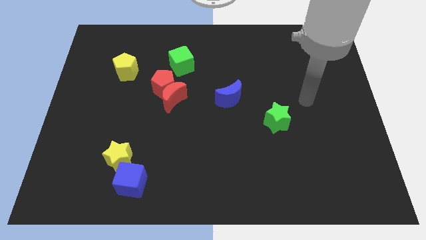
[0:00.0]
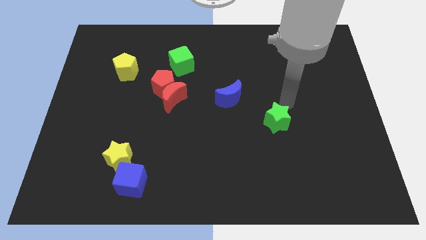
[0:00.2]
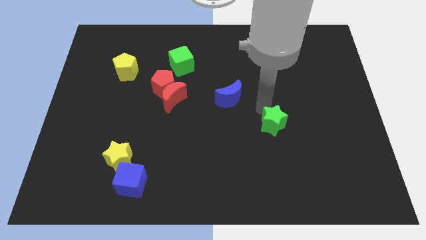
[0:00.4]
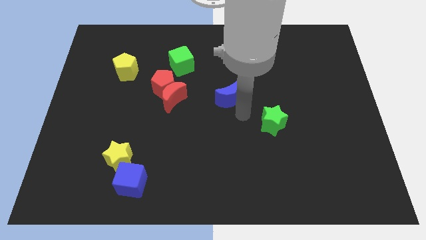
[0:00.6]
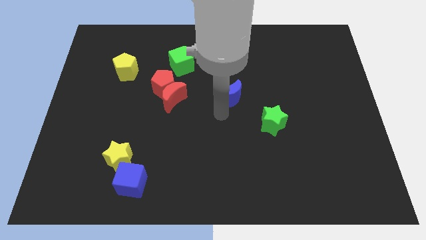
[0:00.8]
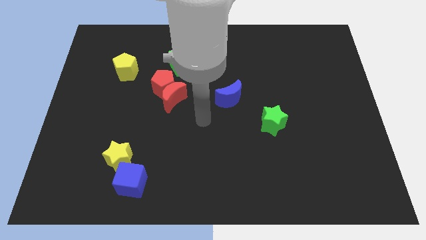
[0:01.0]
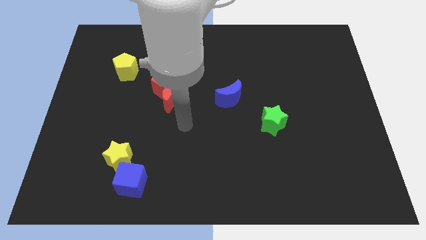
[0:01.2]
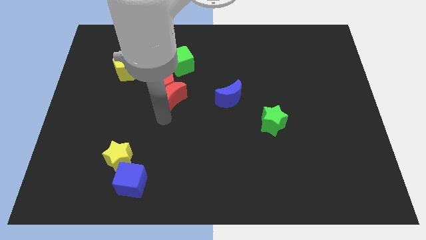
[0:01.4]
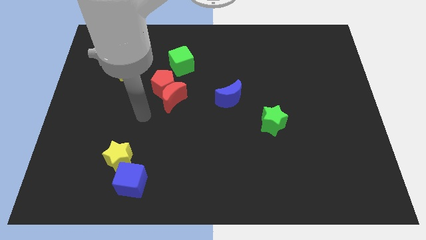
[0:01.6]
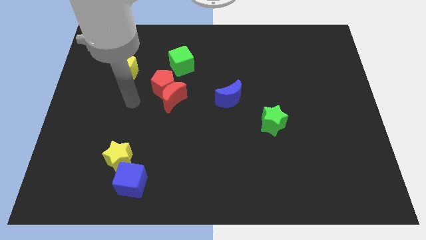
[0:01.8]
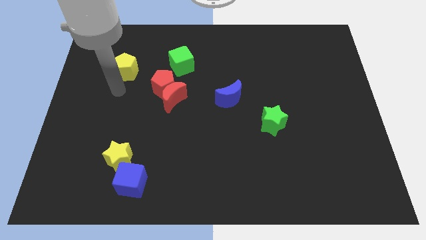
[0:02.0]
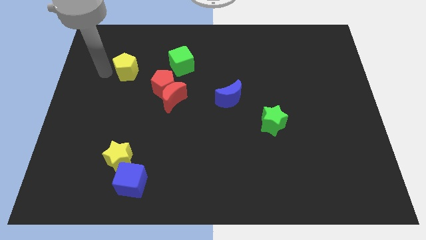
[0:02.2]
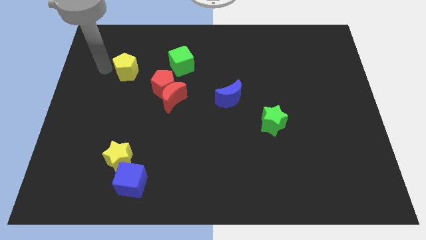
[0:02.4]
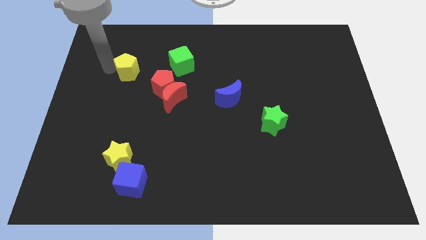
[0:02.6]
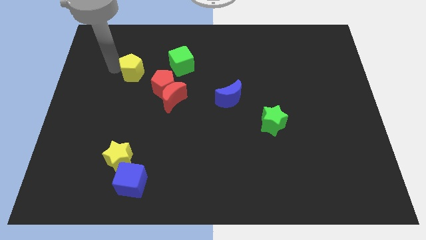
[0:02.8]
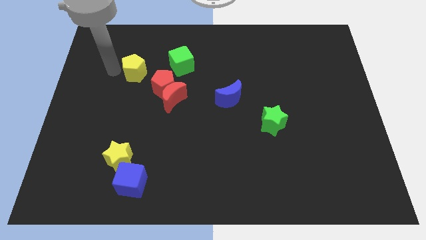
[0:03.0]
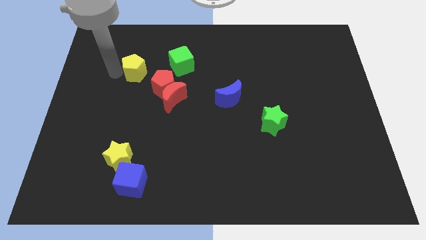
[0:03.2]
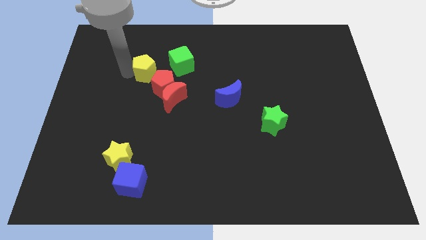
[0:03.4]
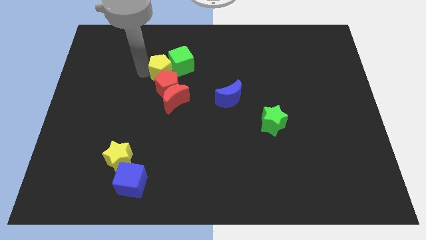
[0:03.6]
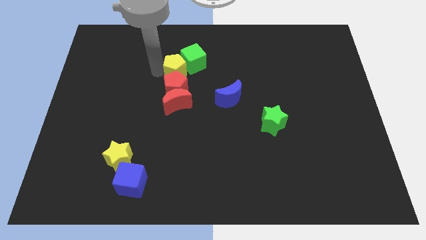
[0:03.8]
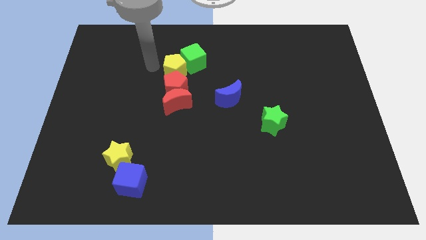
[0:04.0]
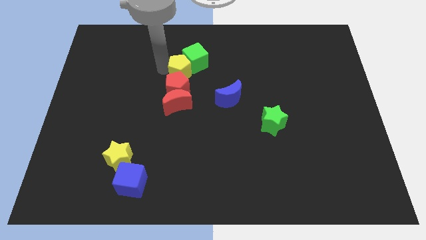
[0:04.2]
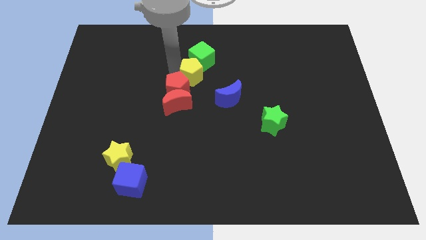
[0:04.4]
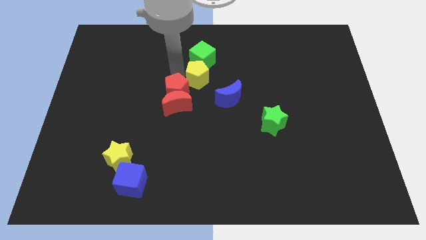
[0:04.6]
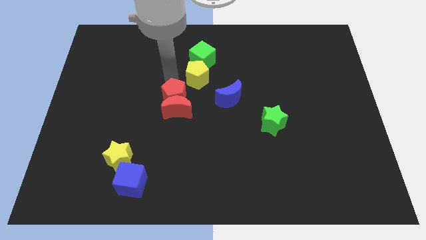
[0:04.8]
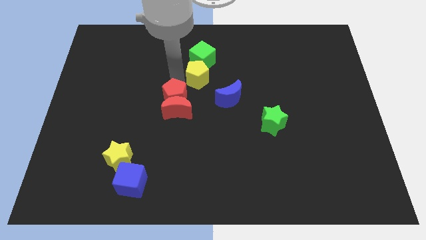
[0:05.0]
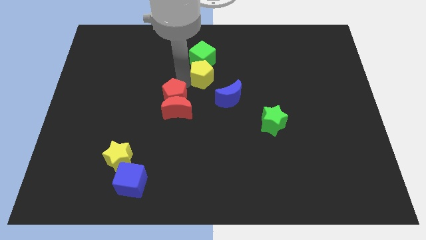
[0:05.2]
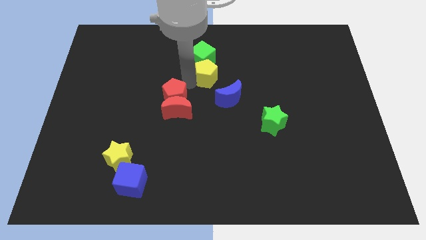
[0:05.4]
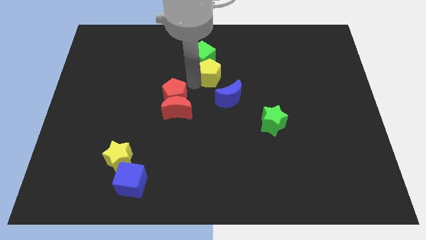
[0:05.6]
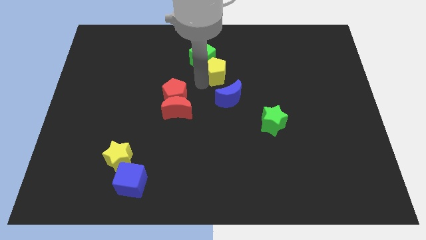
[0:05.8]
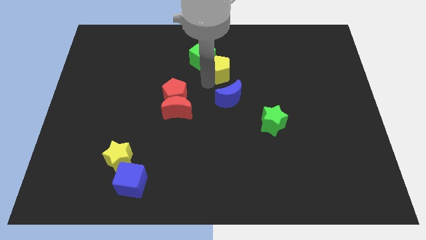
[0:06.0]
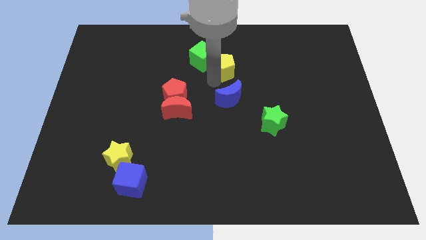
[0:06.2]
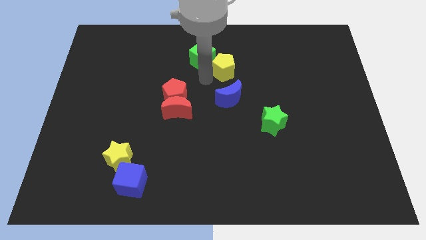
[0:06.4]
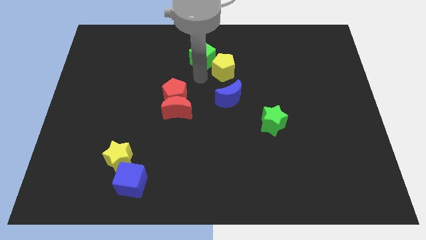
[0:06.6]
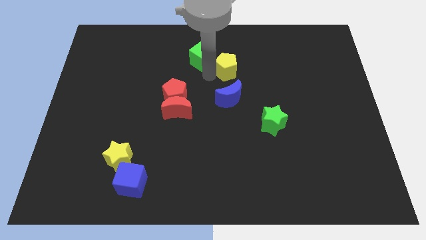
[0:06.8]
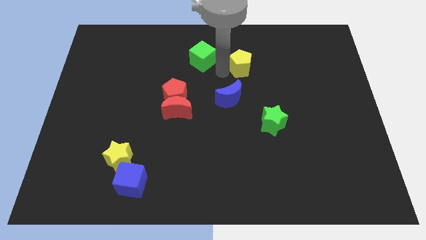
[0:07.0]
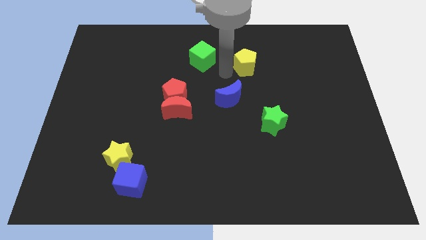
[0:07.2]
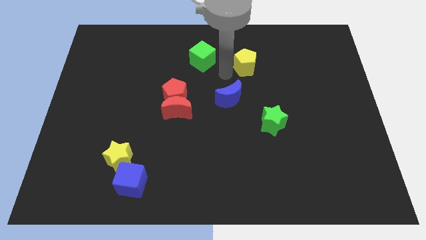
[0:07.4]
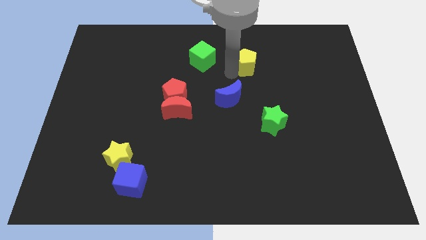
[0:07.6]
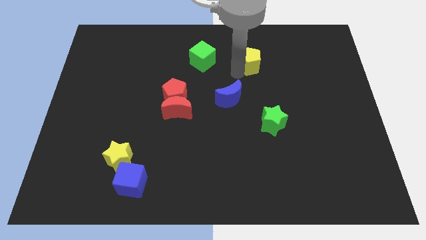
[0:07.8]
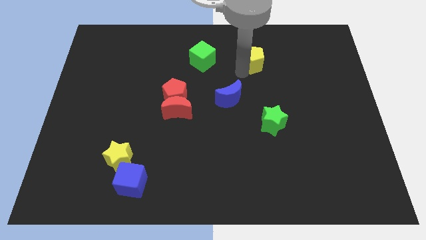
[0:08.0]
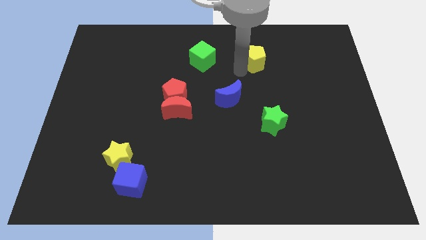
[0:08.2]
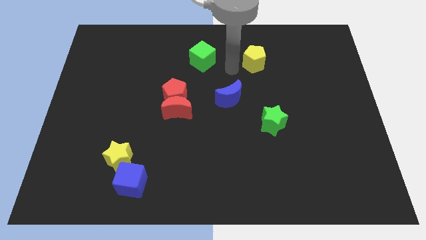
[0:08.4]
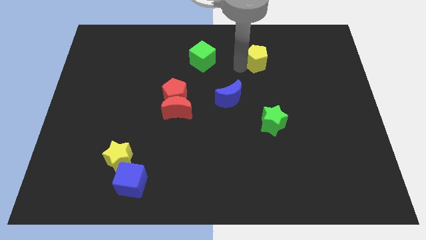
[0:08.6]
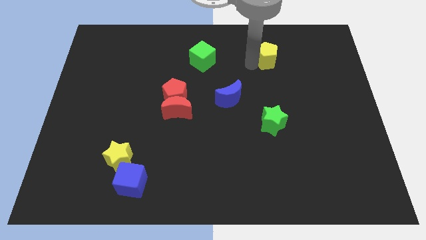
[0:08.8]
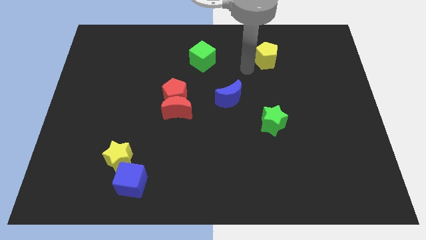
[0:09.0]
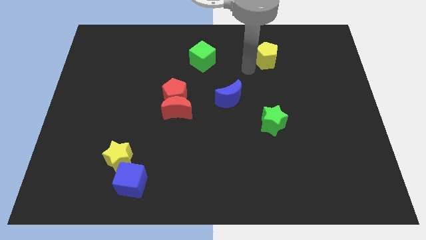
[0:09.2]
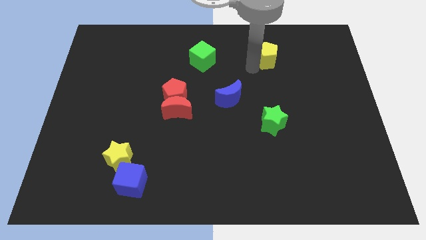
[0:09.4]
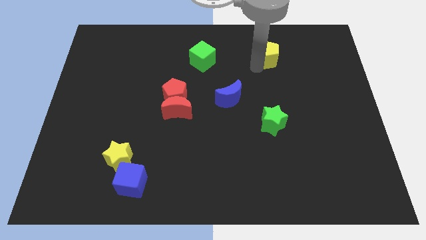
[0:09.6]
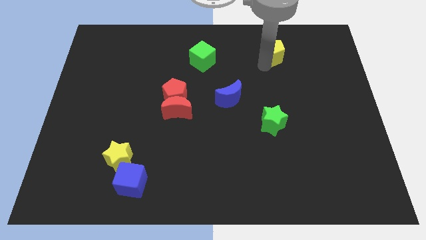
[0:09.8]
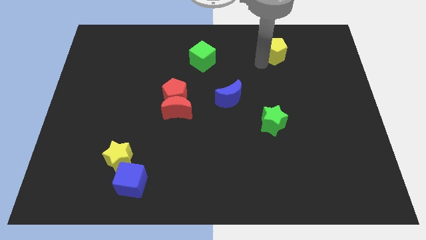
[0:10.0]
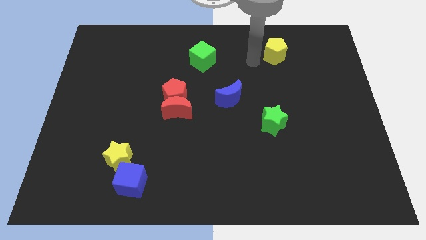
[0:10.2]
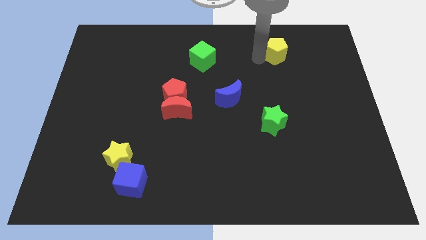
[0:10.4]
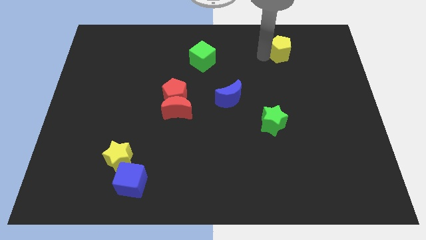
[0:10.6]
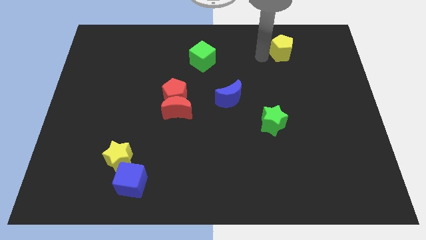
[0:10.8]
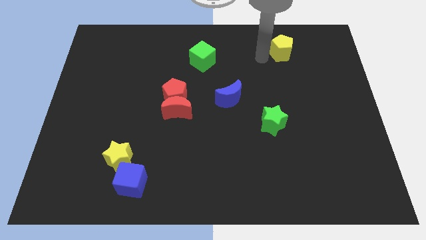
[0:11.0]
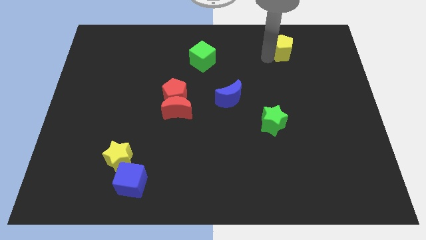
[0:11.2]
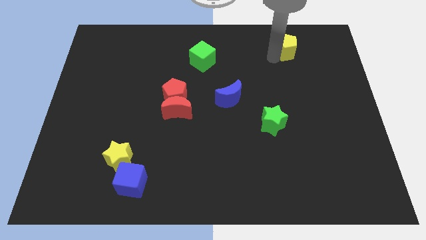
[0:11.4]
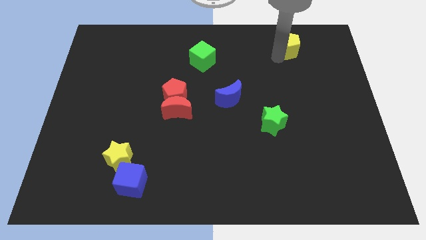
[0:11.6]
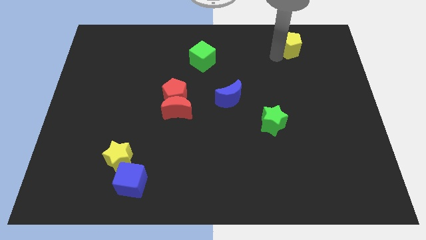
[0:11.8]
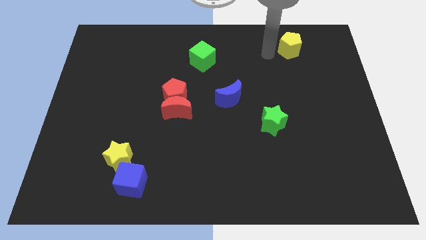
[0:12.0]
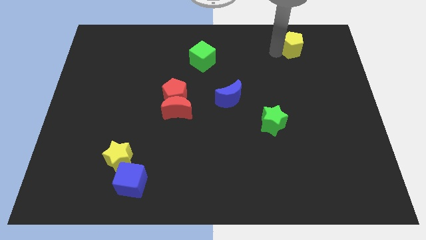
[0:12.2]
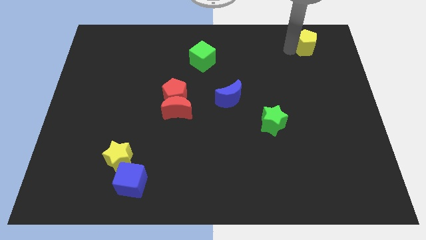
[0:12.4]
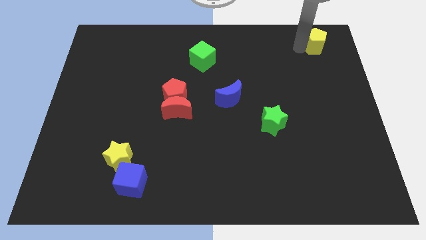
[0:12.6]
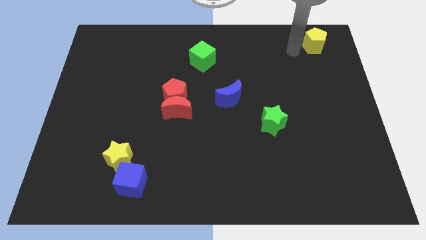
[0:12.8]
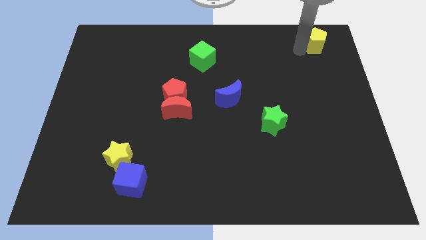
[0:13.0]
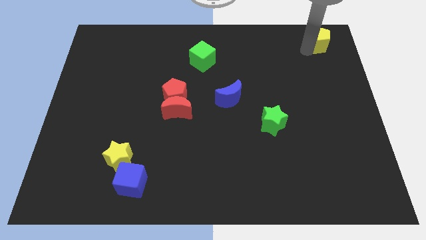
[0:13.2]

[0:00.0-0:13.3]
move the yellow pentagon to the upper right corner
